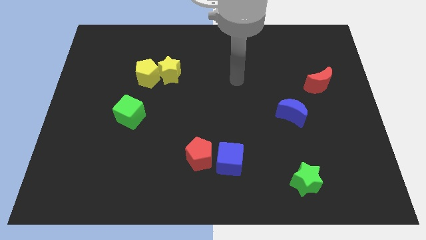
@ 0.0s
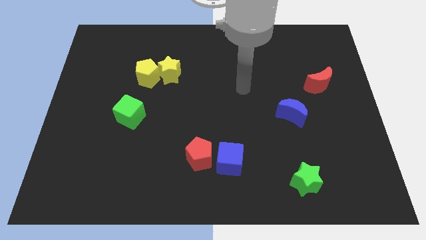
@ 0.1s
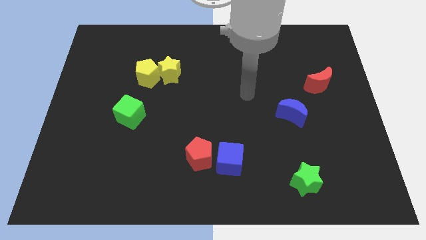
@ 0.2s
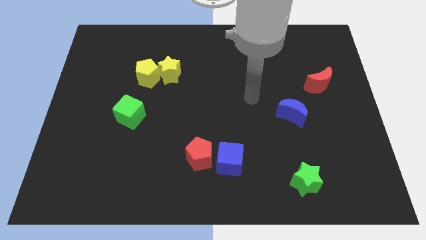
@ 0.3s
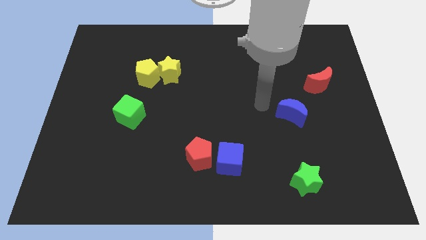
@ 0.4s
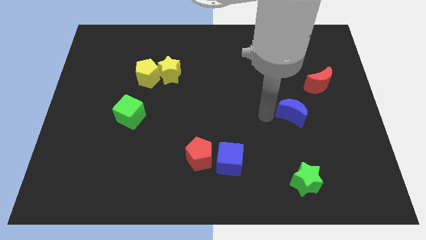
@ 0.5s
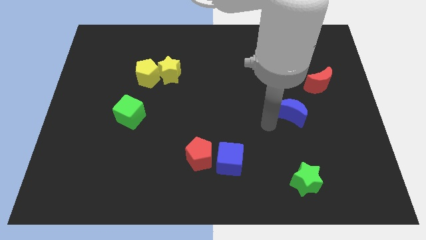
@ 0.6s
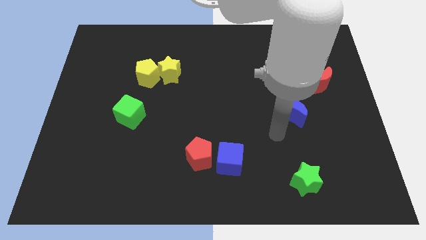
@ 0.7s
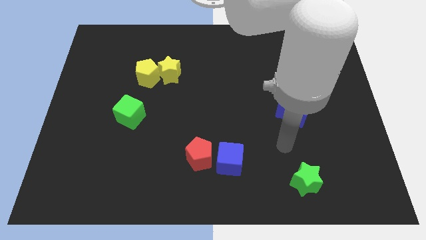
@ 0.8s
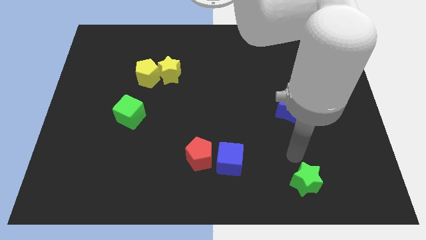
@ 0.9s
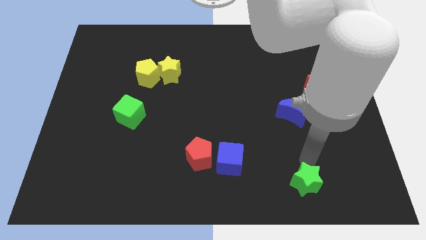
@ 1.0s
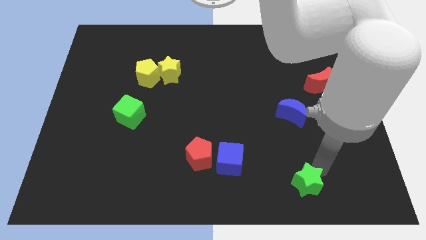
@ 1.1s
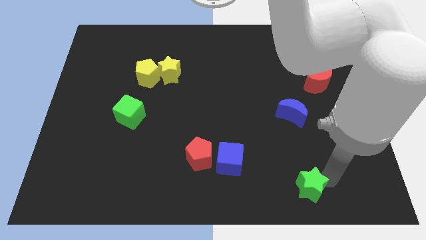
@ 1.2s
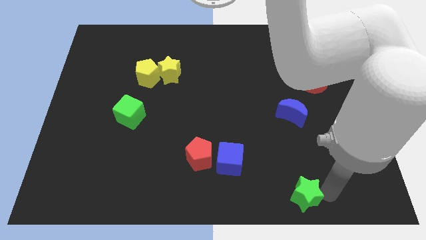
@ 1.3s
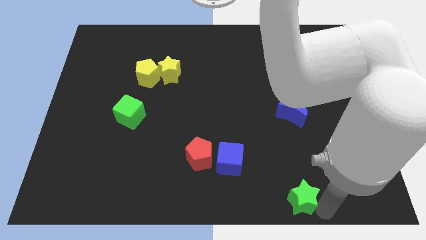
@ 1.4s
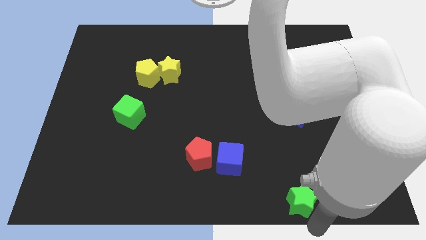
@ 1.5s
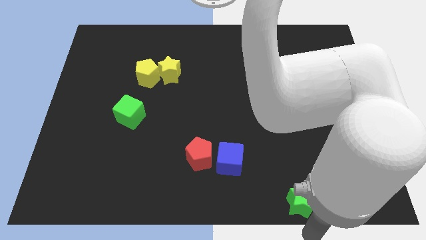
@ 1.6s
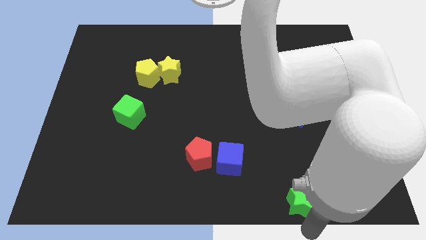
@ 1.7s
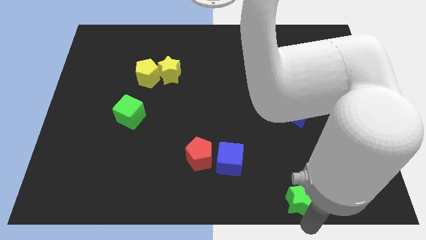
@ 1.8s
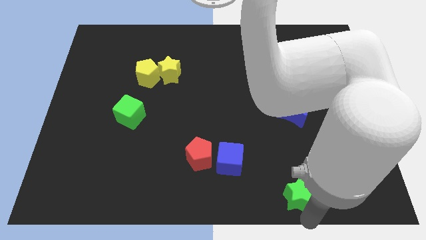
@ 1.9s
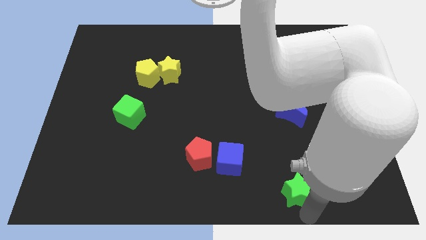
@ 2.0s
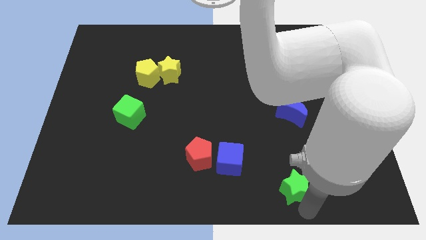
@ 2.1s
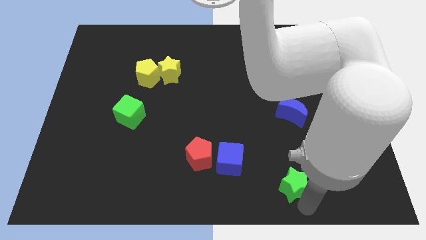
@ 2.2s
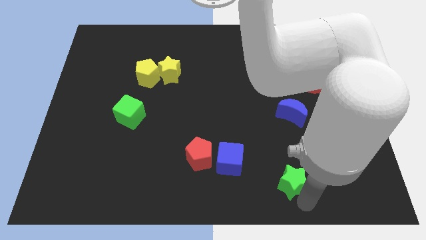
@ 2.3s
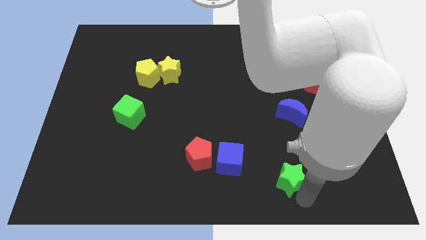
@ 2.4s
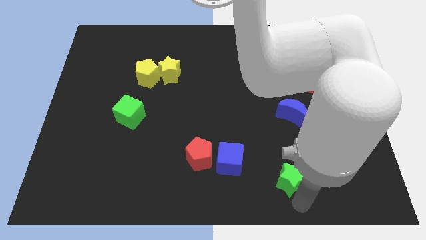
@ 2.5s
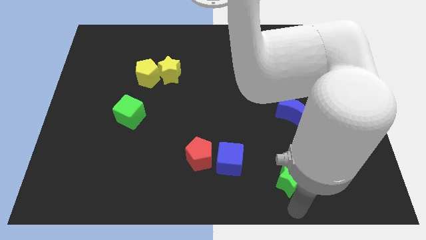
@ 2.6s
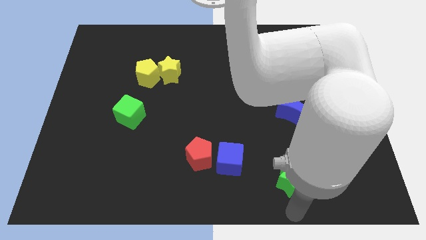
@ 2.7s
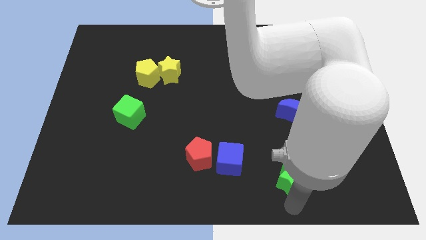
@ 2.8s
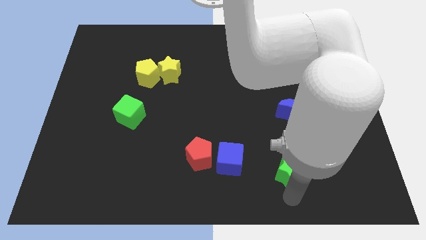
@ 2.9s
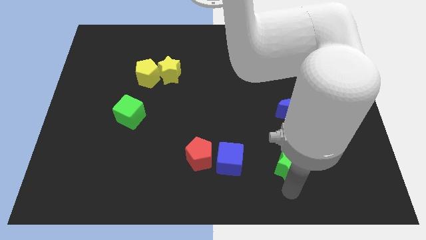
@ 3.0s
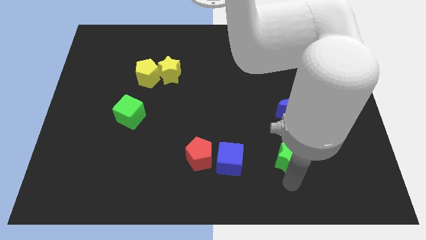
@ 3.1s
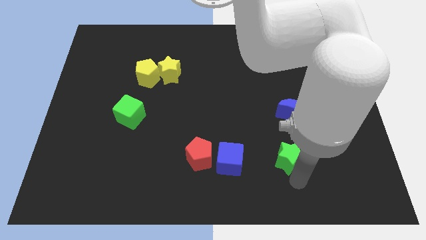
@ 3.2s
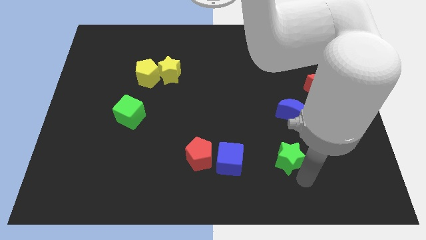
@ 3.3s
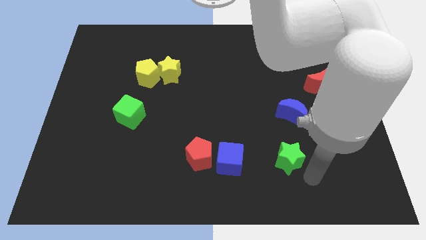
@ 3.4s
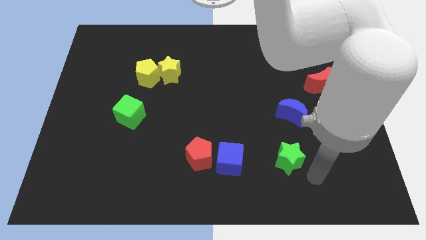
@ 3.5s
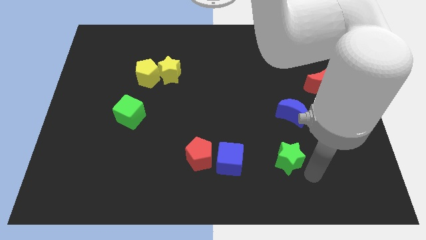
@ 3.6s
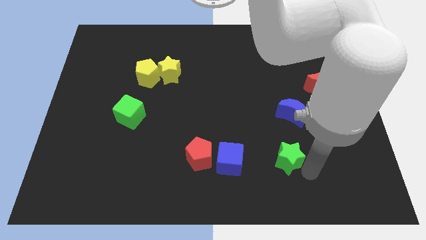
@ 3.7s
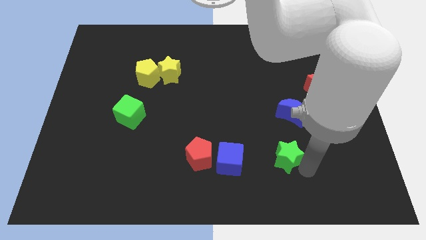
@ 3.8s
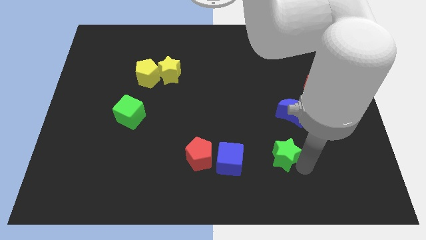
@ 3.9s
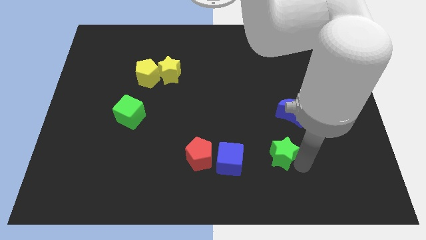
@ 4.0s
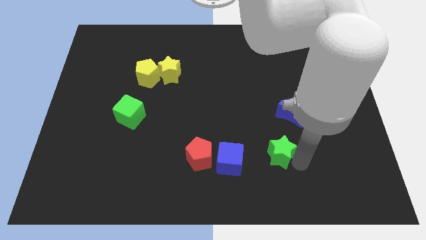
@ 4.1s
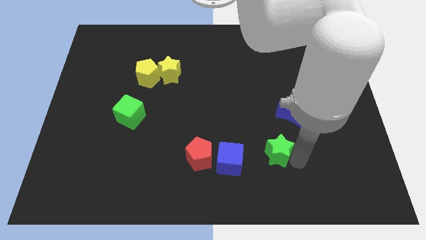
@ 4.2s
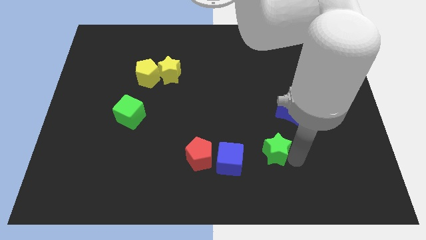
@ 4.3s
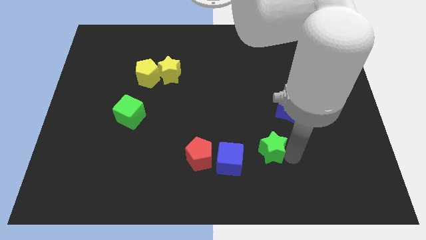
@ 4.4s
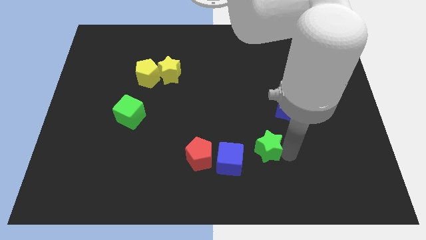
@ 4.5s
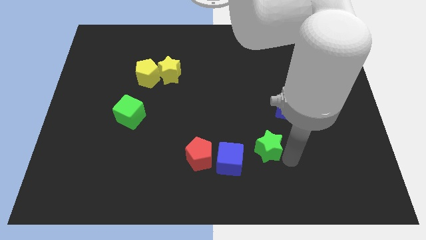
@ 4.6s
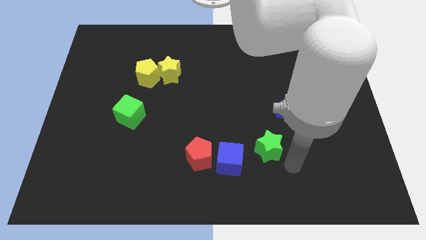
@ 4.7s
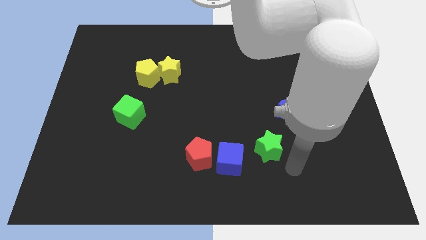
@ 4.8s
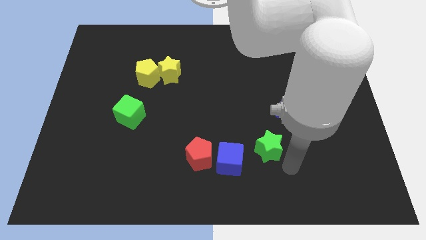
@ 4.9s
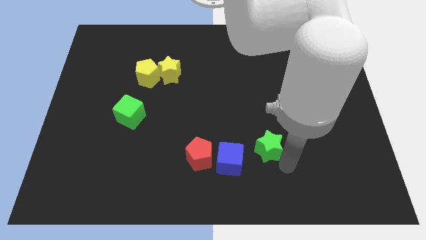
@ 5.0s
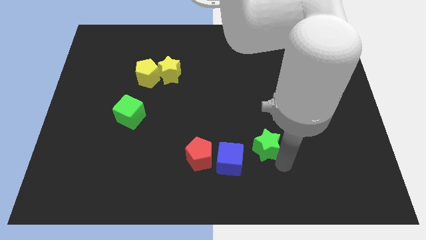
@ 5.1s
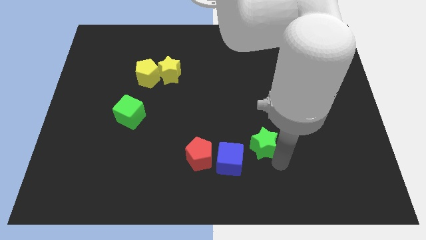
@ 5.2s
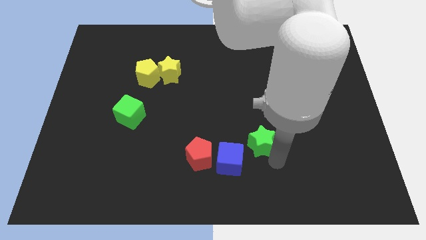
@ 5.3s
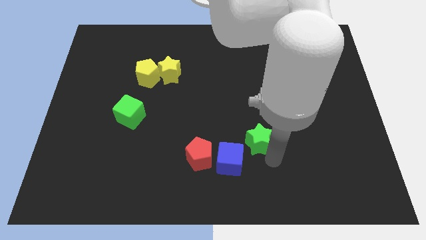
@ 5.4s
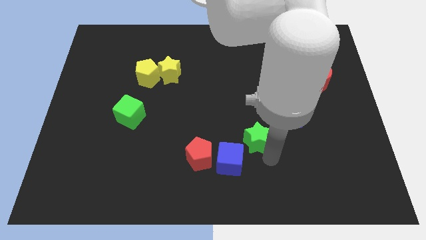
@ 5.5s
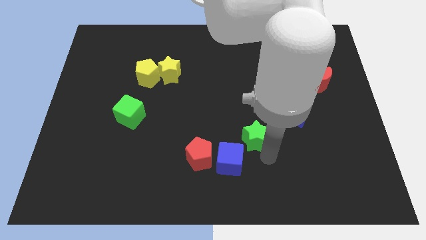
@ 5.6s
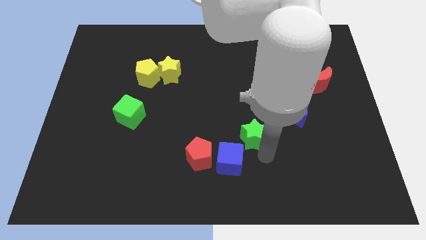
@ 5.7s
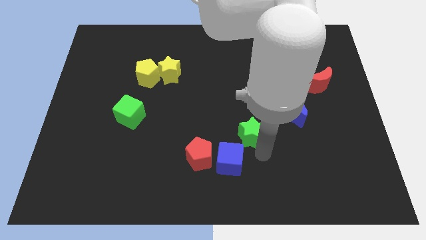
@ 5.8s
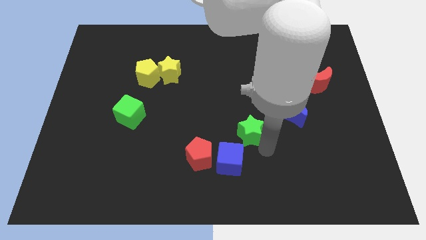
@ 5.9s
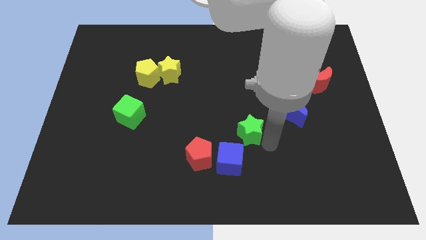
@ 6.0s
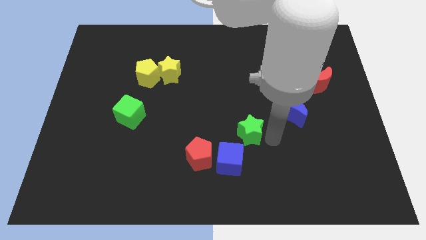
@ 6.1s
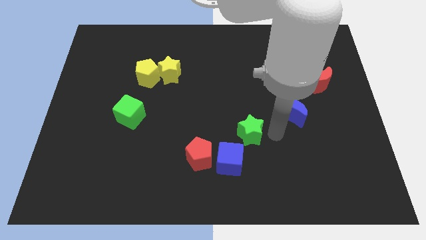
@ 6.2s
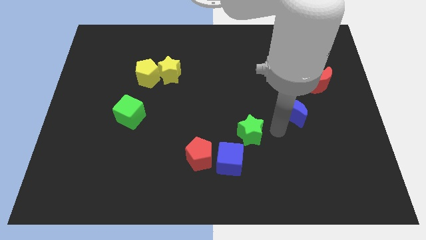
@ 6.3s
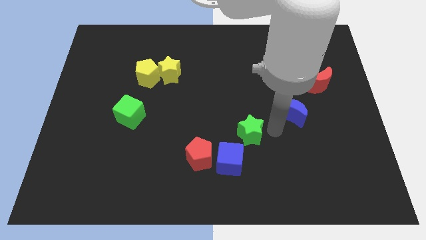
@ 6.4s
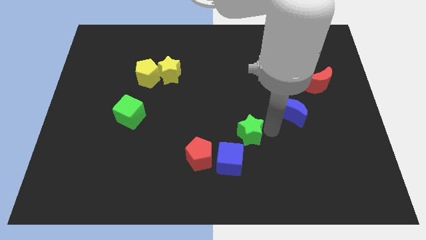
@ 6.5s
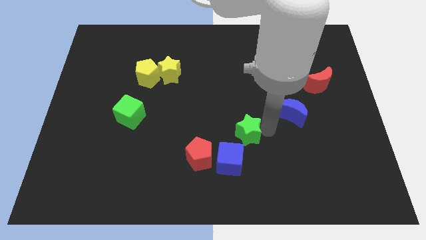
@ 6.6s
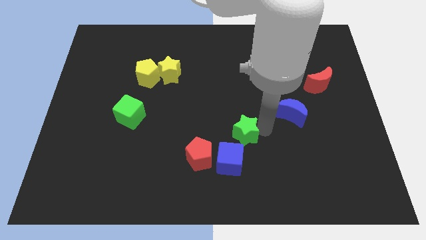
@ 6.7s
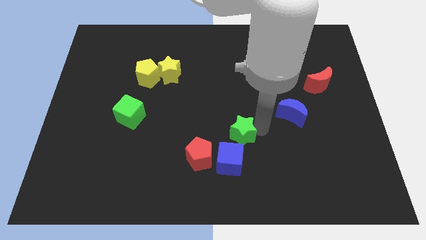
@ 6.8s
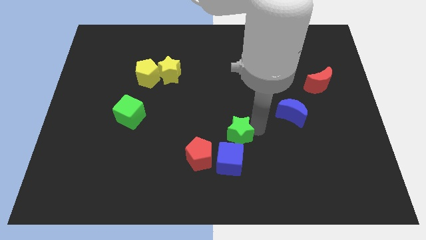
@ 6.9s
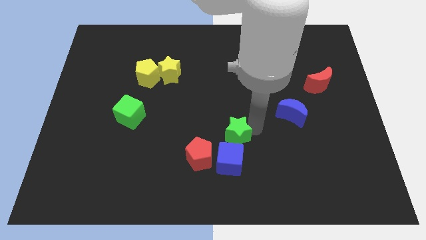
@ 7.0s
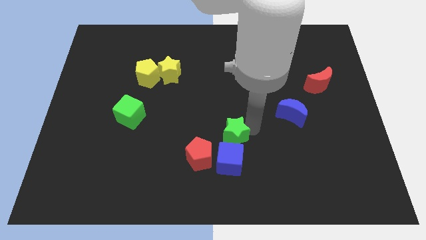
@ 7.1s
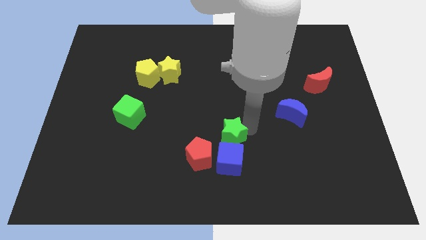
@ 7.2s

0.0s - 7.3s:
slide the green star to the top left of the blue cube
